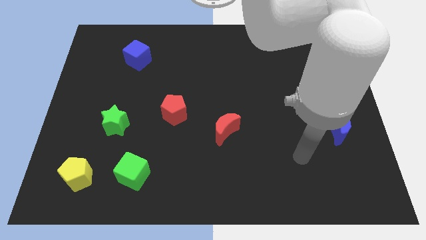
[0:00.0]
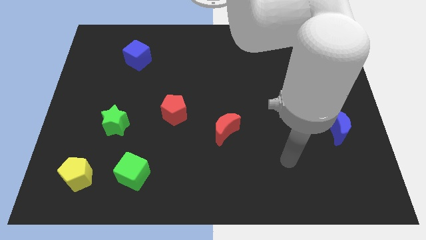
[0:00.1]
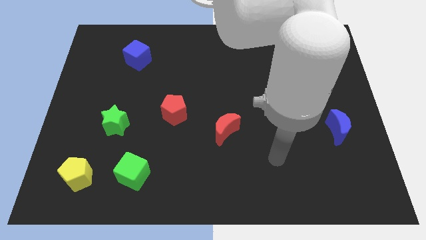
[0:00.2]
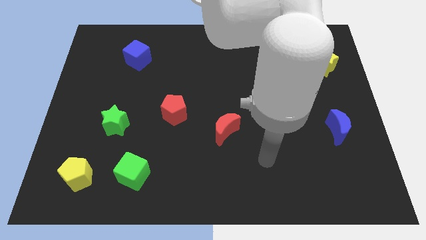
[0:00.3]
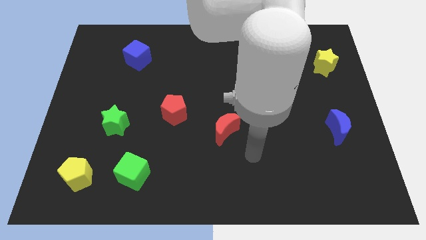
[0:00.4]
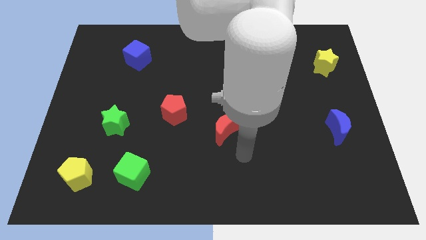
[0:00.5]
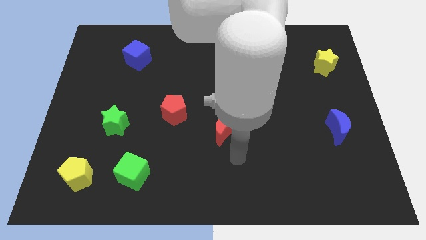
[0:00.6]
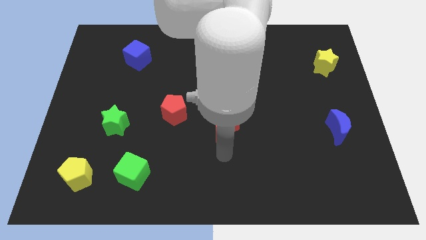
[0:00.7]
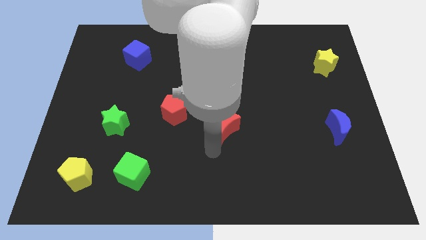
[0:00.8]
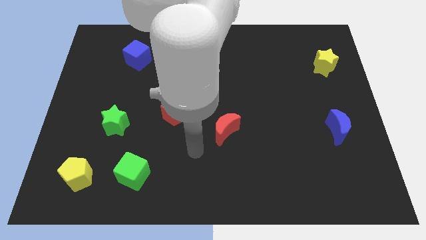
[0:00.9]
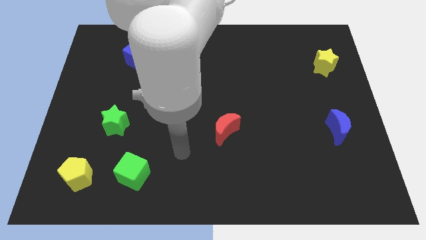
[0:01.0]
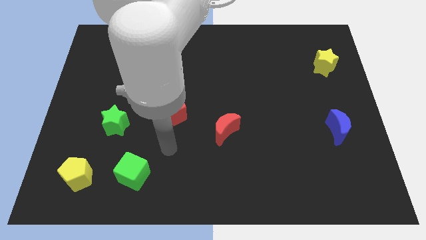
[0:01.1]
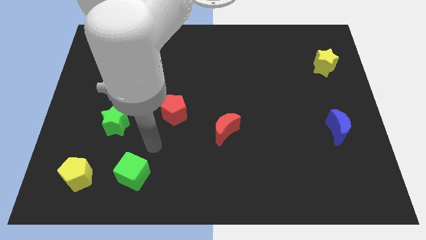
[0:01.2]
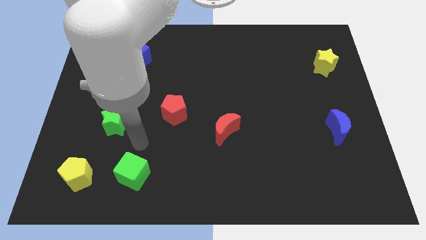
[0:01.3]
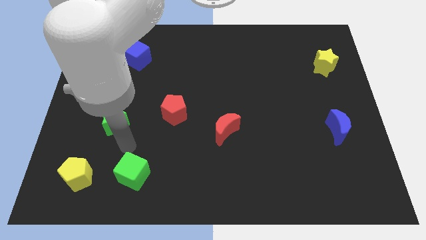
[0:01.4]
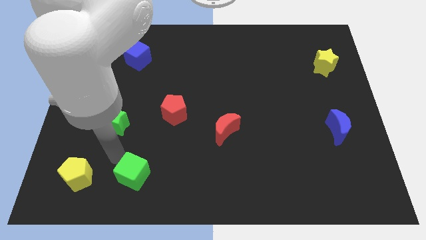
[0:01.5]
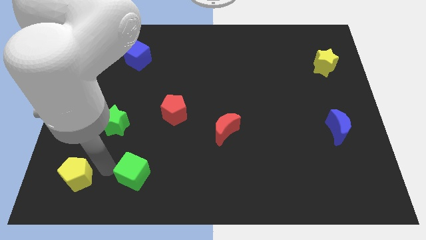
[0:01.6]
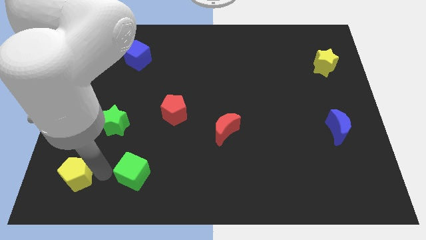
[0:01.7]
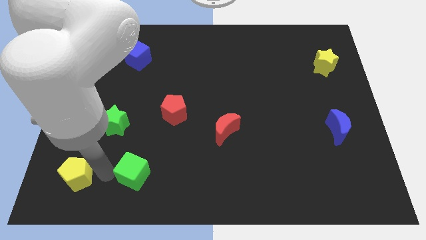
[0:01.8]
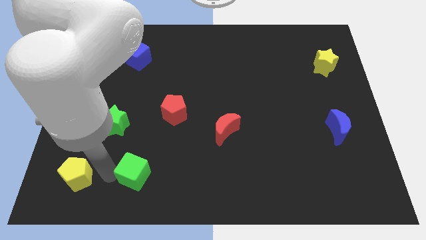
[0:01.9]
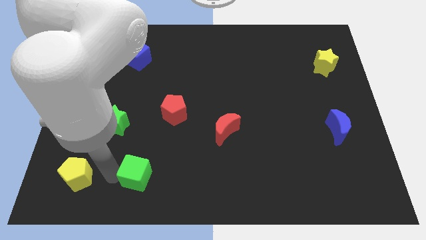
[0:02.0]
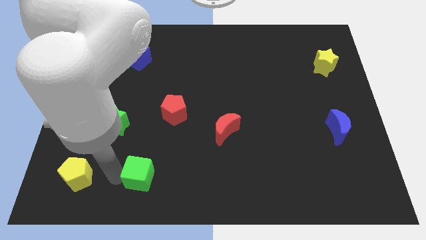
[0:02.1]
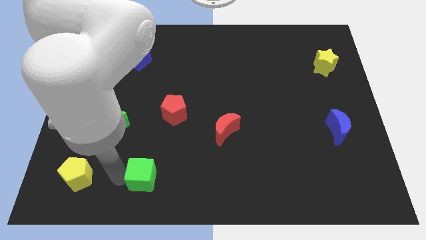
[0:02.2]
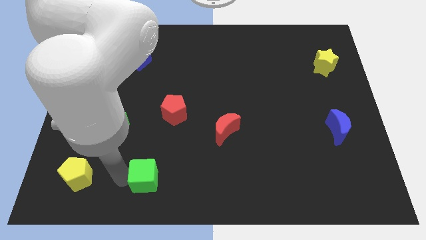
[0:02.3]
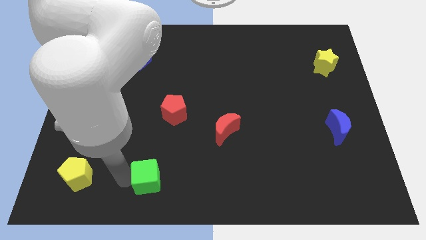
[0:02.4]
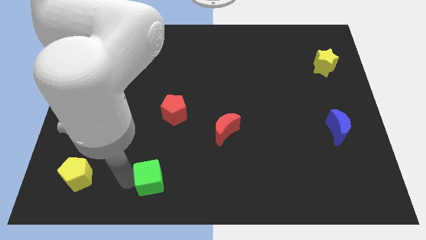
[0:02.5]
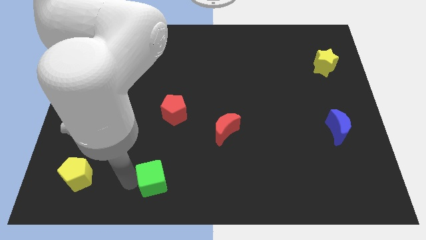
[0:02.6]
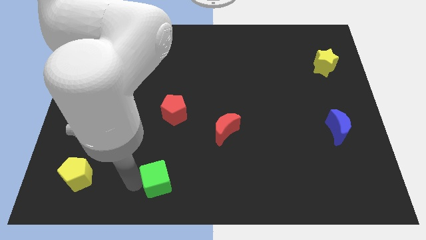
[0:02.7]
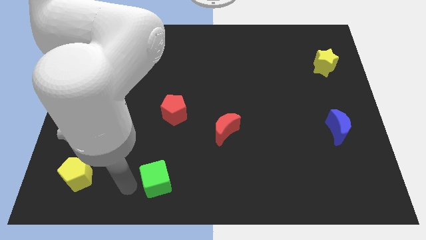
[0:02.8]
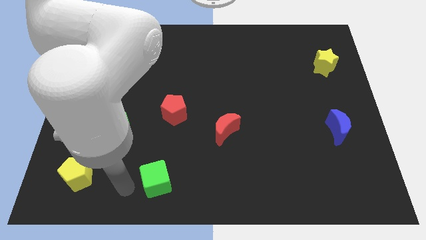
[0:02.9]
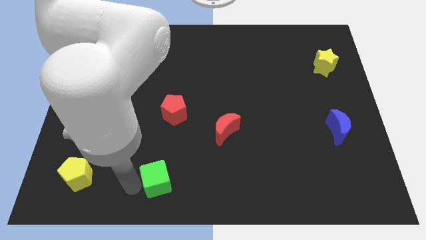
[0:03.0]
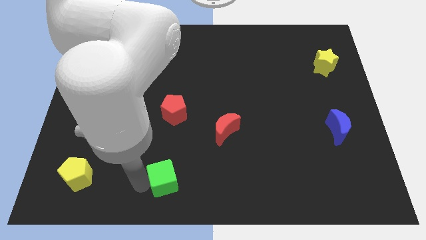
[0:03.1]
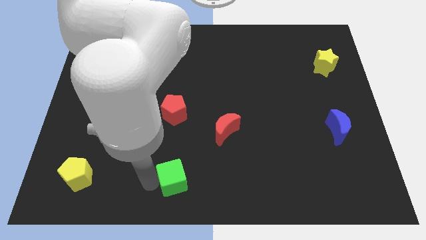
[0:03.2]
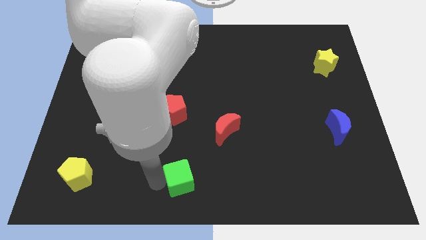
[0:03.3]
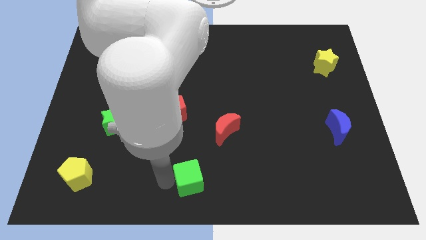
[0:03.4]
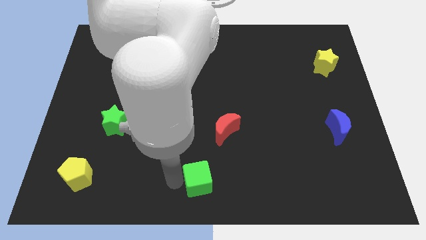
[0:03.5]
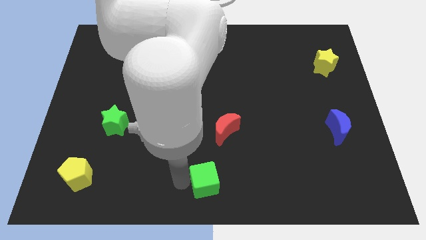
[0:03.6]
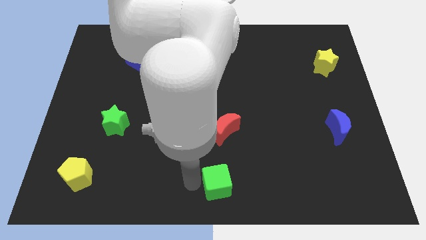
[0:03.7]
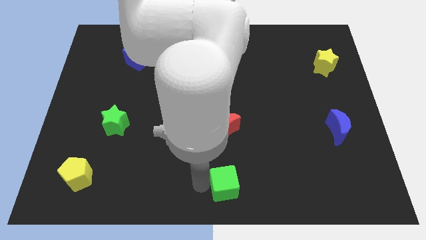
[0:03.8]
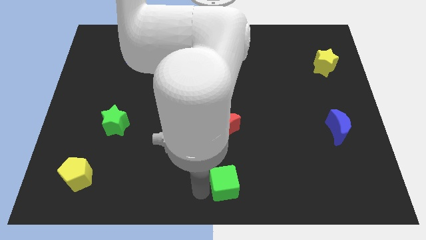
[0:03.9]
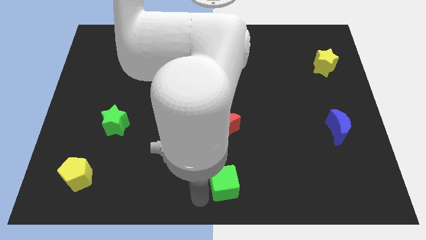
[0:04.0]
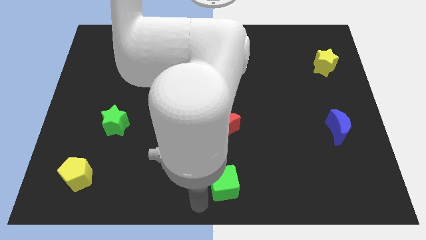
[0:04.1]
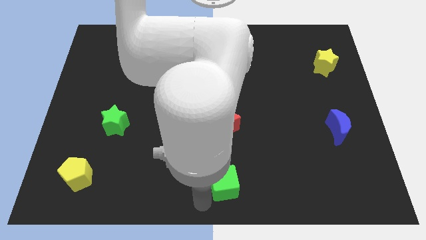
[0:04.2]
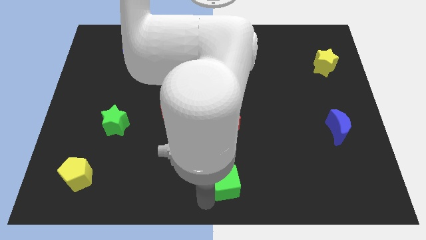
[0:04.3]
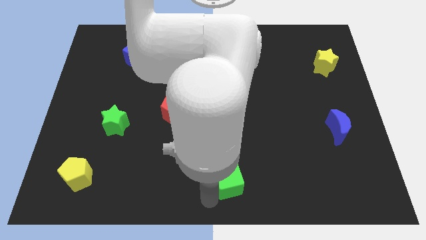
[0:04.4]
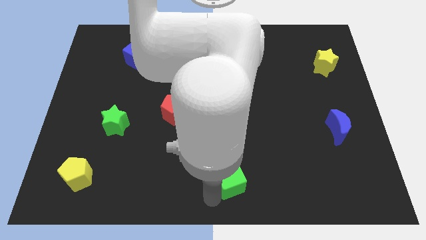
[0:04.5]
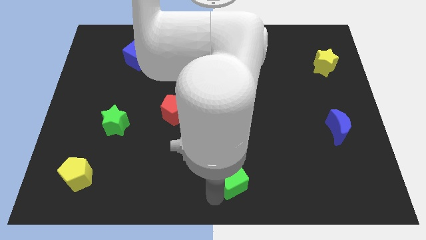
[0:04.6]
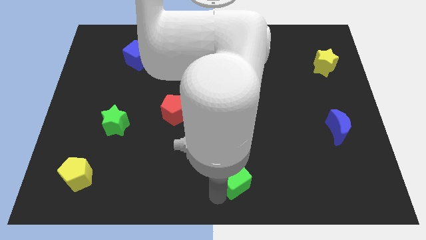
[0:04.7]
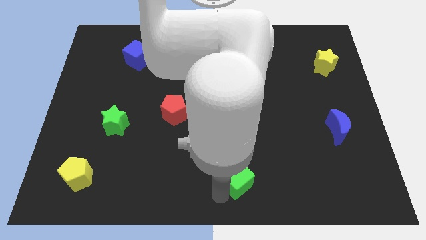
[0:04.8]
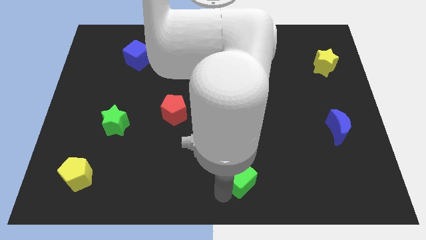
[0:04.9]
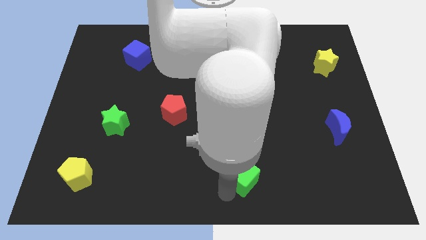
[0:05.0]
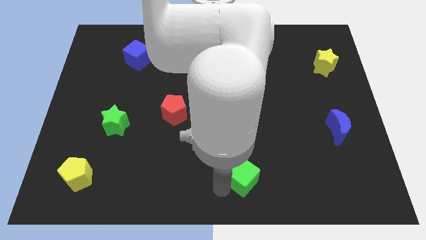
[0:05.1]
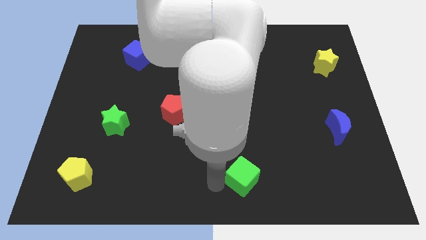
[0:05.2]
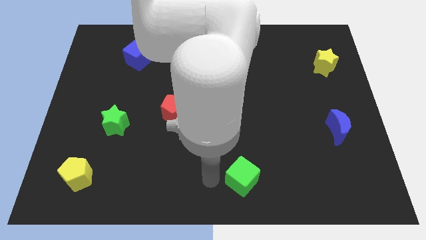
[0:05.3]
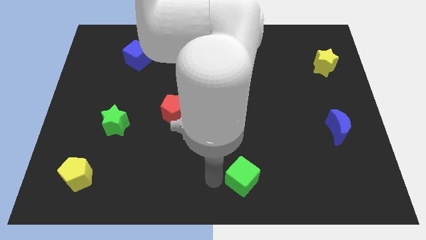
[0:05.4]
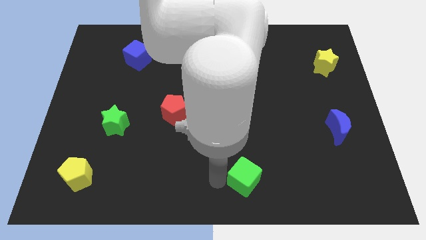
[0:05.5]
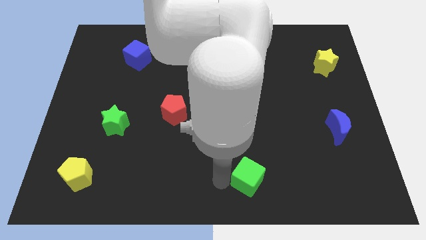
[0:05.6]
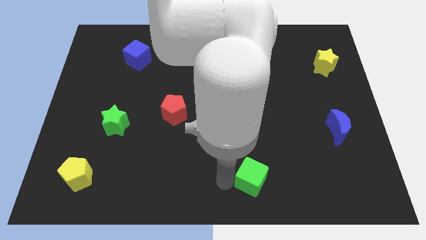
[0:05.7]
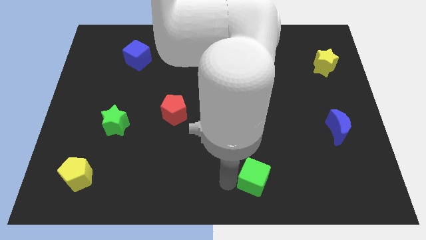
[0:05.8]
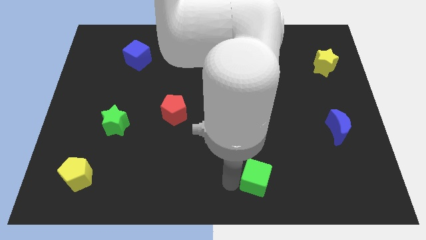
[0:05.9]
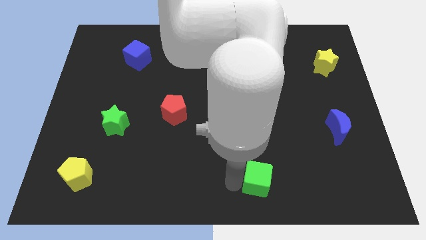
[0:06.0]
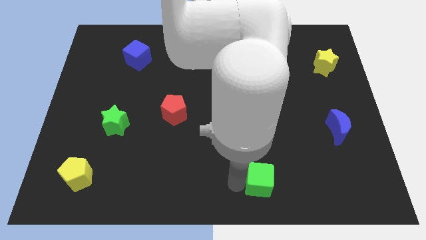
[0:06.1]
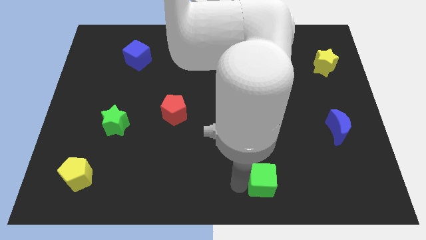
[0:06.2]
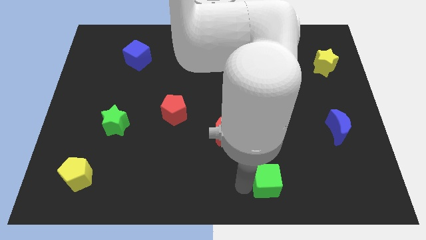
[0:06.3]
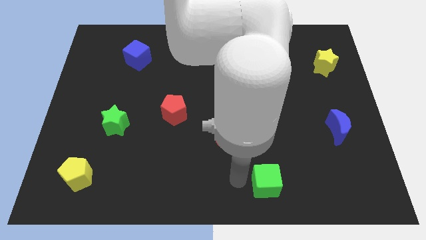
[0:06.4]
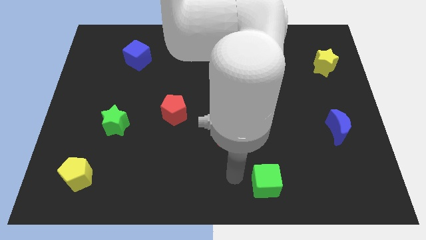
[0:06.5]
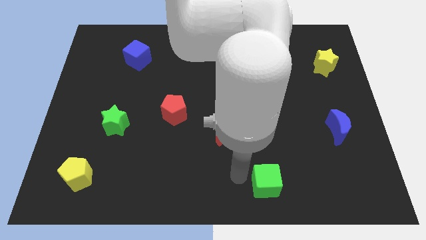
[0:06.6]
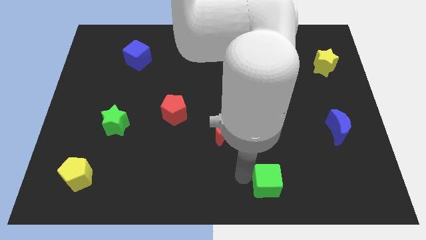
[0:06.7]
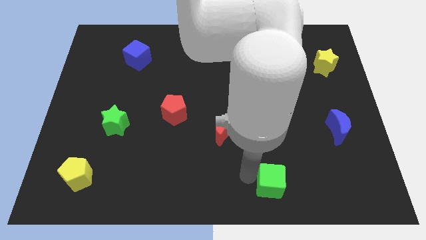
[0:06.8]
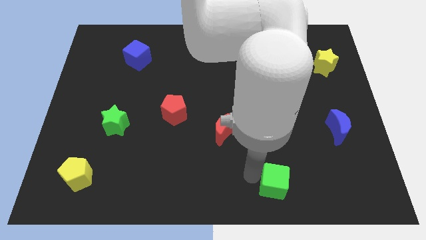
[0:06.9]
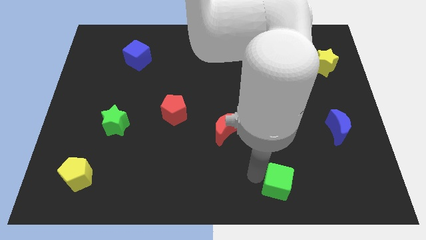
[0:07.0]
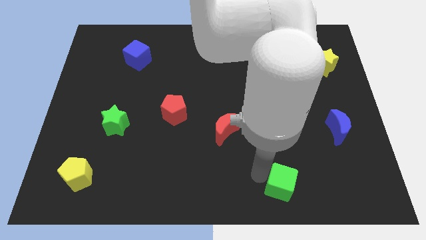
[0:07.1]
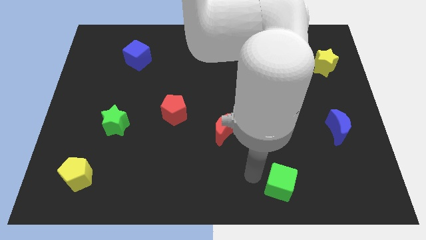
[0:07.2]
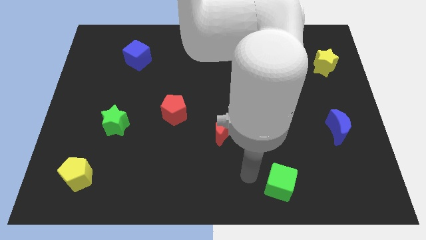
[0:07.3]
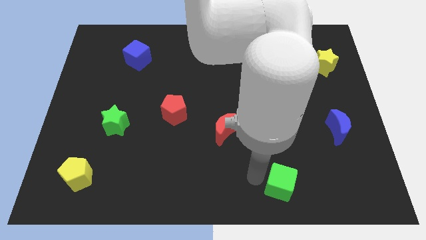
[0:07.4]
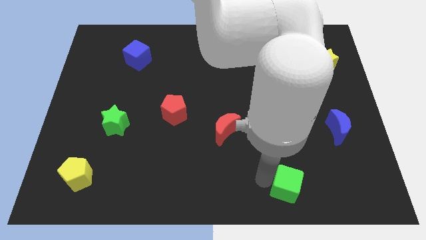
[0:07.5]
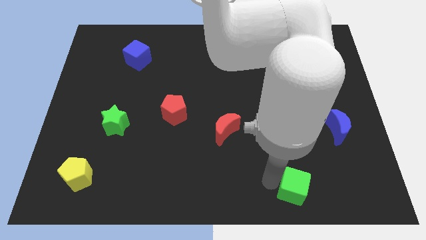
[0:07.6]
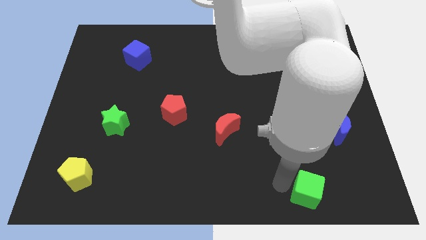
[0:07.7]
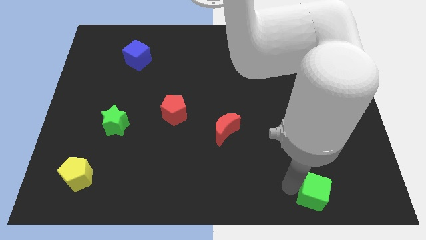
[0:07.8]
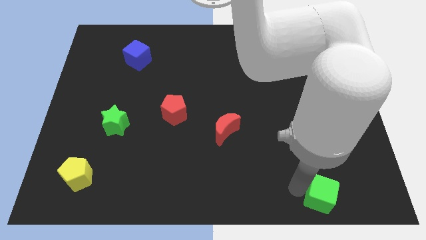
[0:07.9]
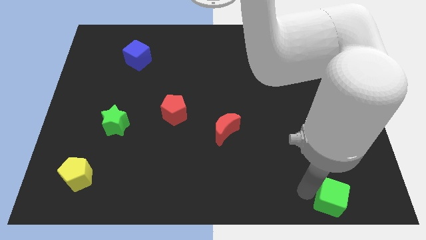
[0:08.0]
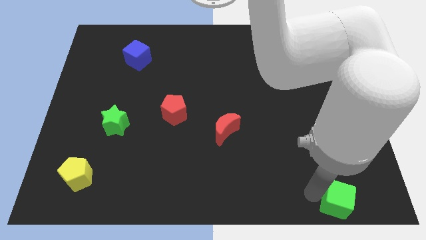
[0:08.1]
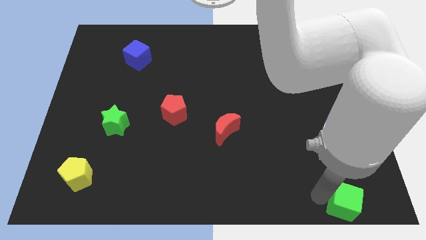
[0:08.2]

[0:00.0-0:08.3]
put the green cube to the bottom right of the board
